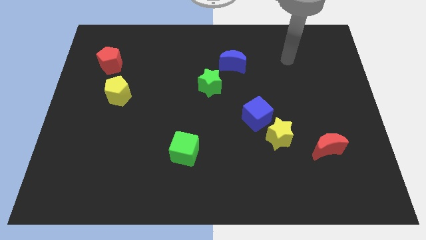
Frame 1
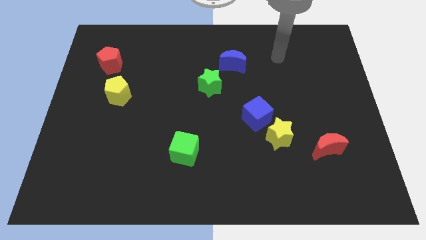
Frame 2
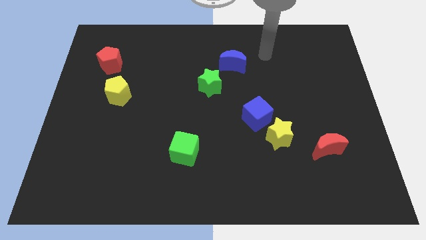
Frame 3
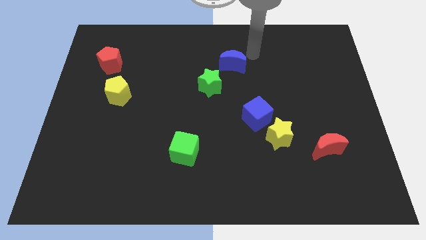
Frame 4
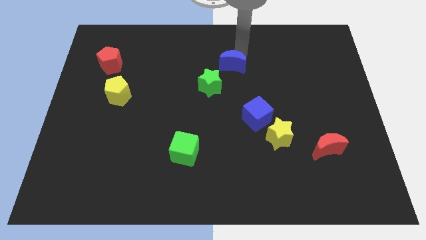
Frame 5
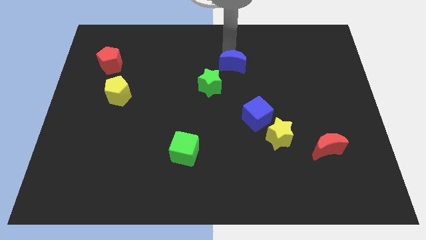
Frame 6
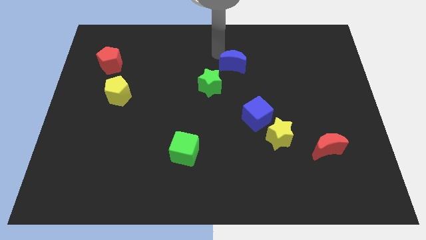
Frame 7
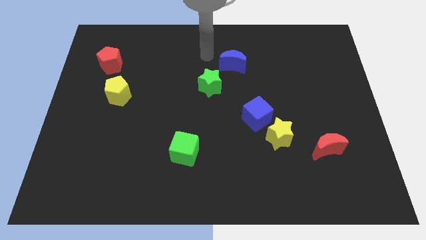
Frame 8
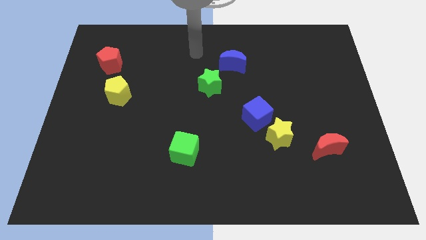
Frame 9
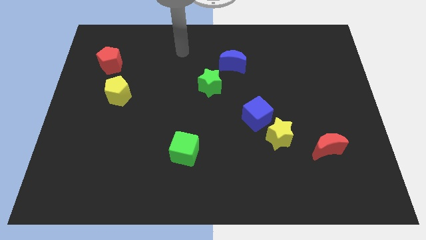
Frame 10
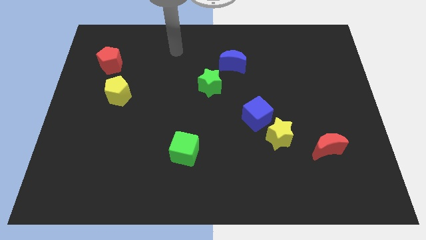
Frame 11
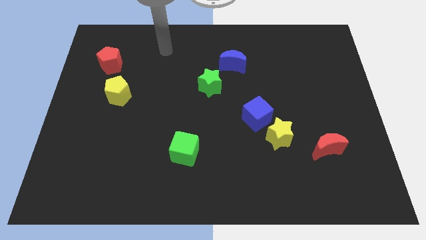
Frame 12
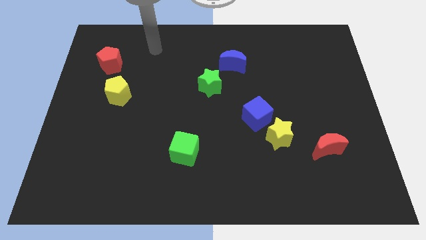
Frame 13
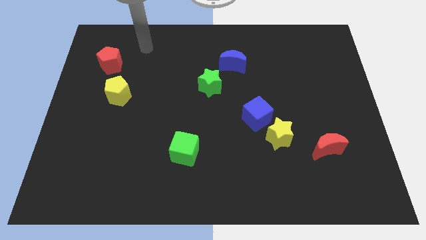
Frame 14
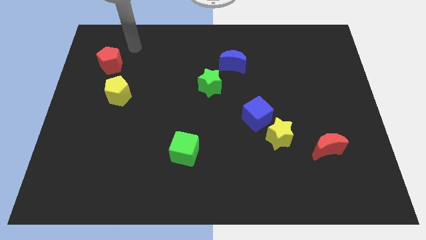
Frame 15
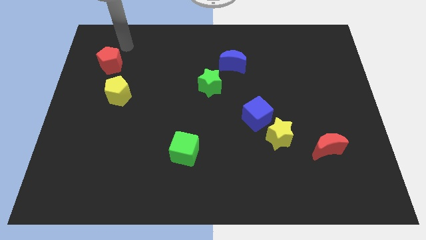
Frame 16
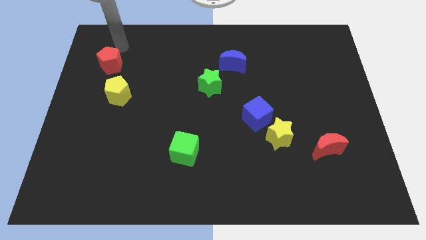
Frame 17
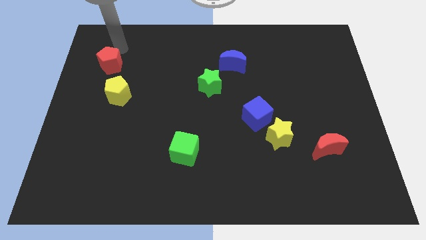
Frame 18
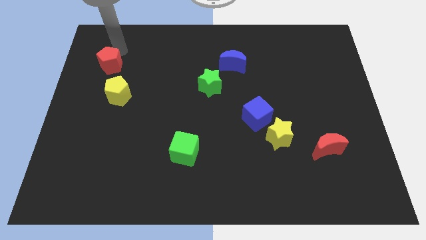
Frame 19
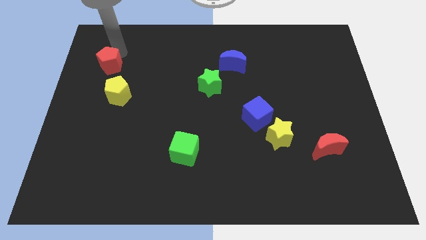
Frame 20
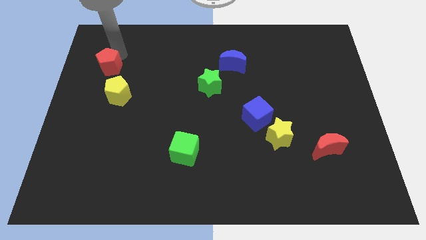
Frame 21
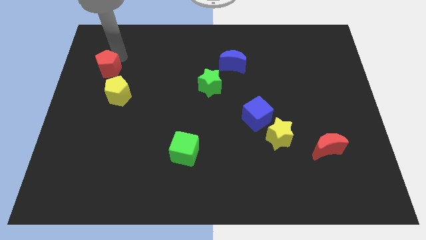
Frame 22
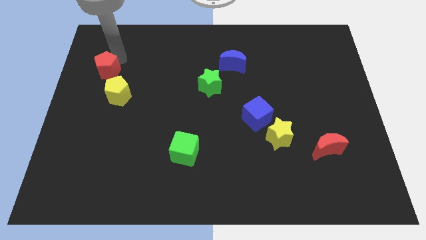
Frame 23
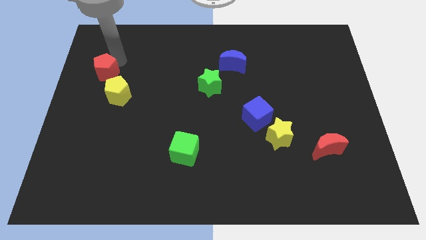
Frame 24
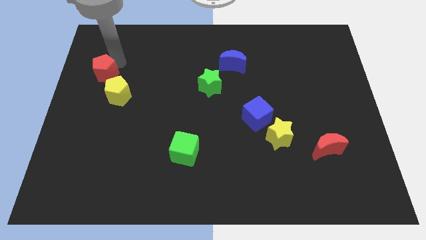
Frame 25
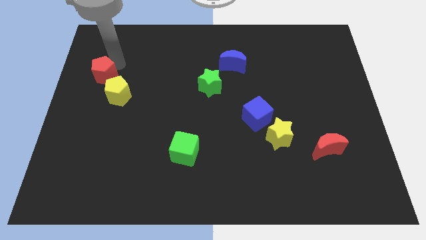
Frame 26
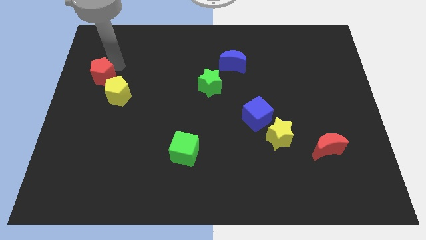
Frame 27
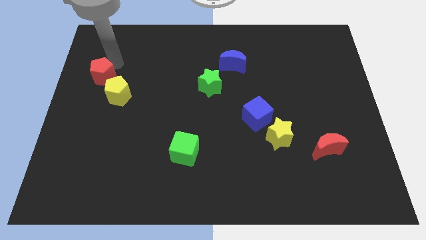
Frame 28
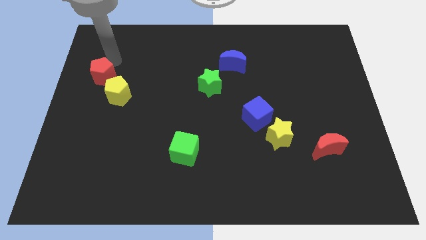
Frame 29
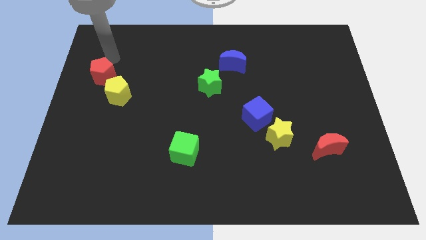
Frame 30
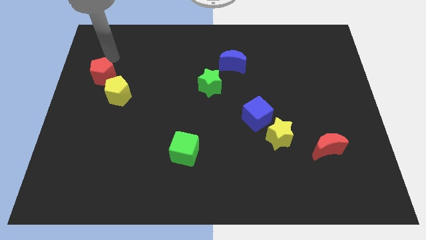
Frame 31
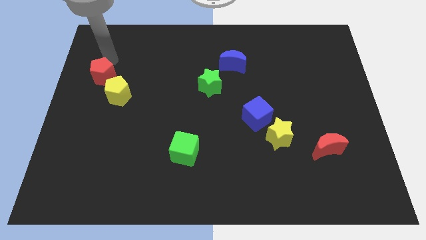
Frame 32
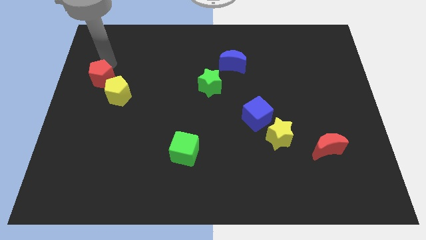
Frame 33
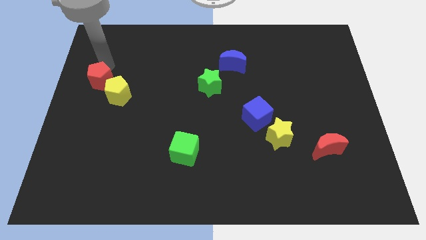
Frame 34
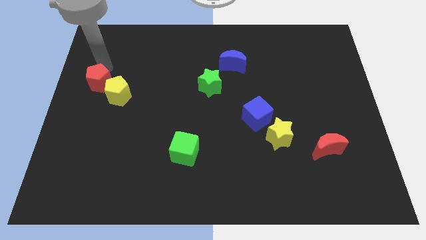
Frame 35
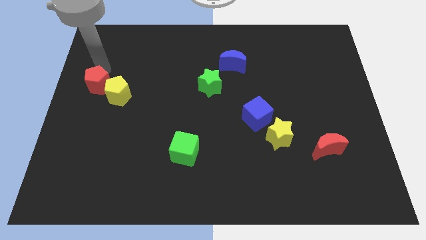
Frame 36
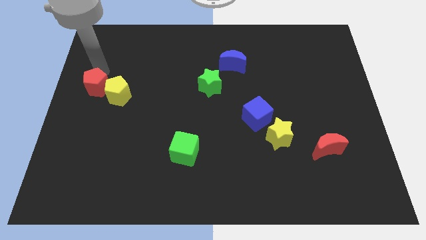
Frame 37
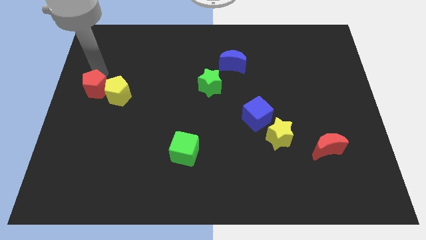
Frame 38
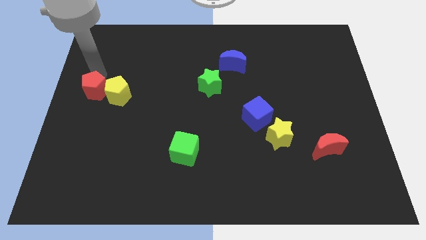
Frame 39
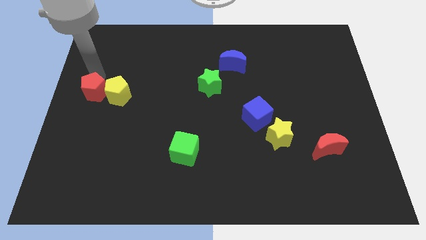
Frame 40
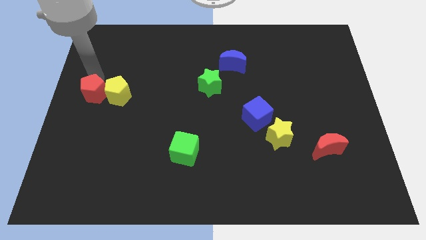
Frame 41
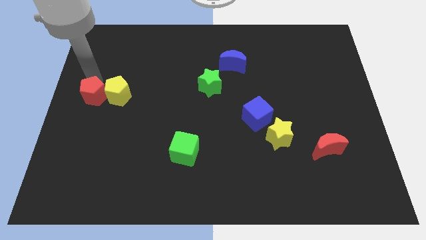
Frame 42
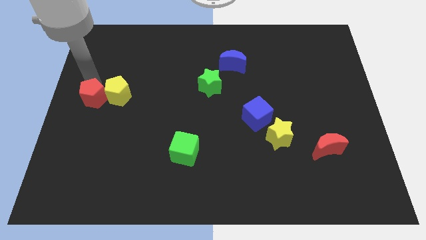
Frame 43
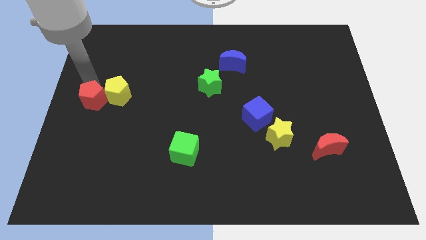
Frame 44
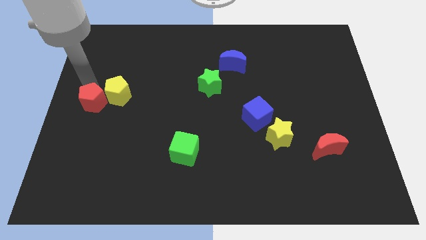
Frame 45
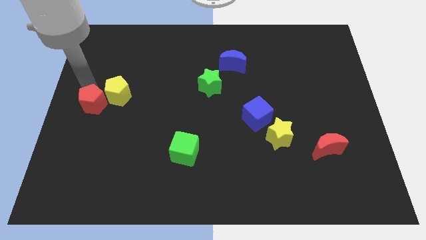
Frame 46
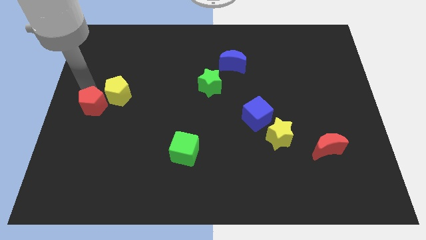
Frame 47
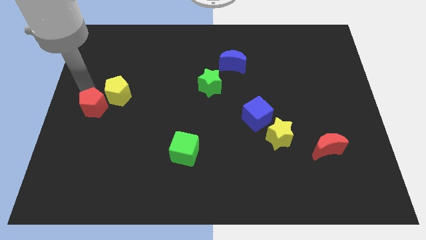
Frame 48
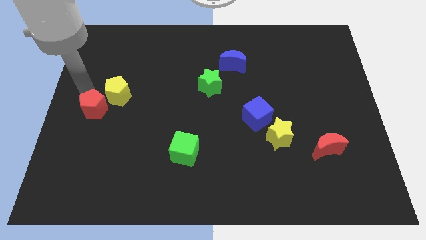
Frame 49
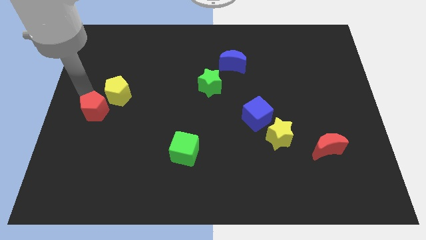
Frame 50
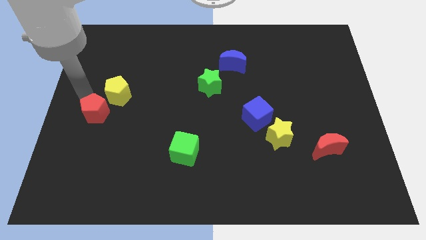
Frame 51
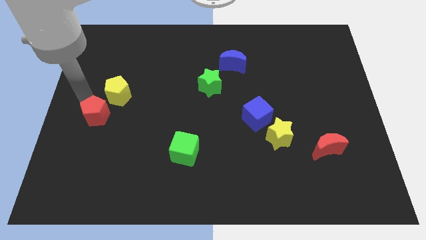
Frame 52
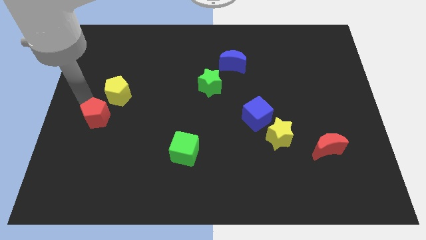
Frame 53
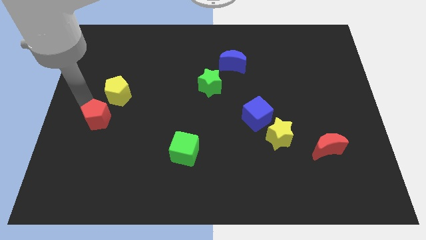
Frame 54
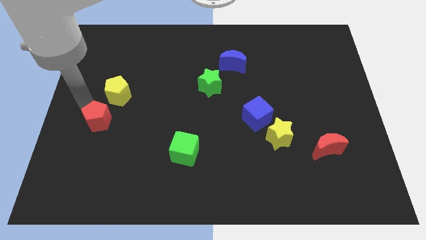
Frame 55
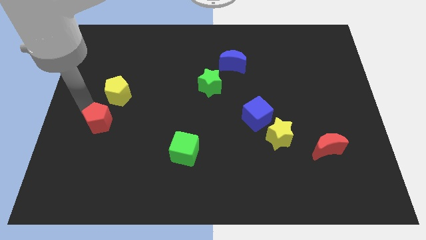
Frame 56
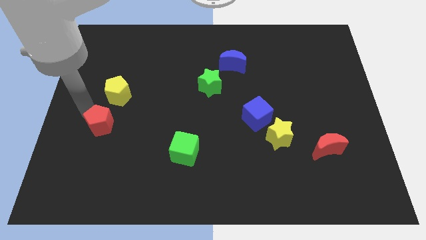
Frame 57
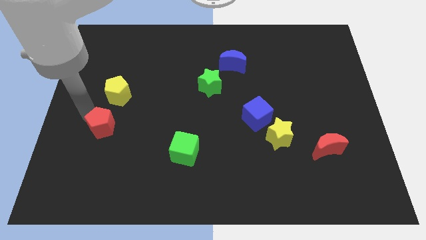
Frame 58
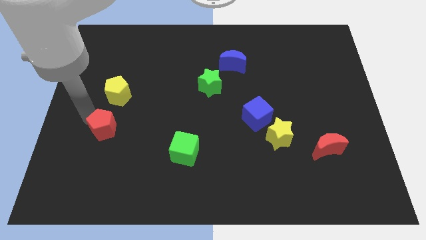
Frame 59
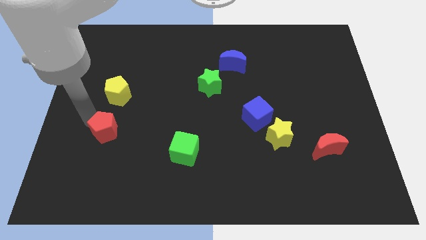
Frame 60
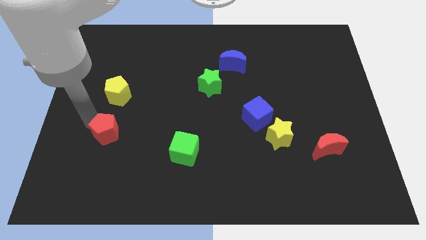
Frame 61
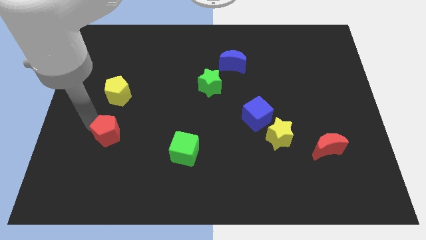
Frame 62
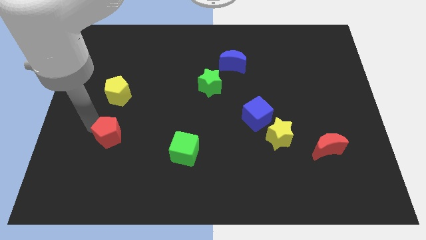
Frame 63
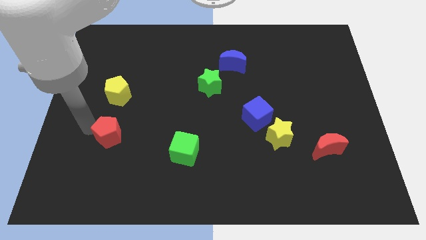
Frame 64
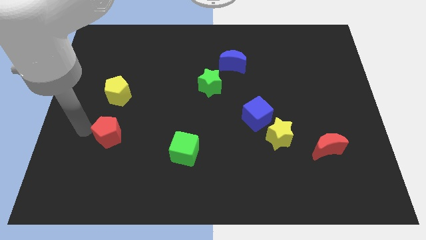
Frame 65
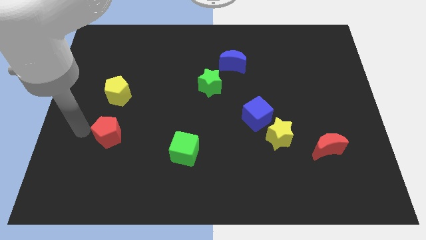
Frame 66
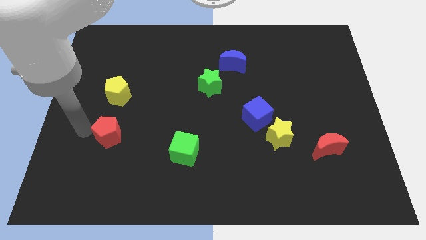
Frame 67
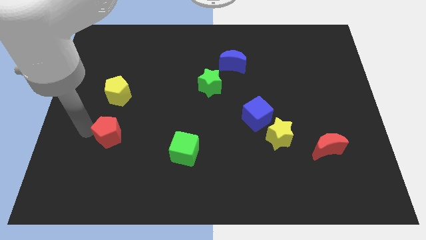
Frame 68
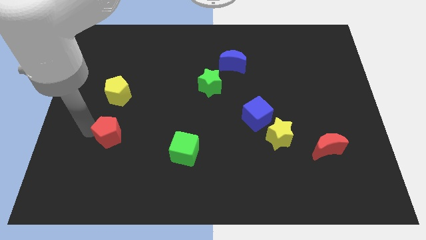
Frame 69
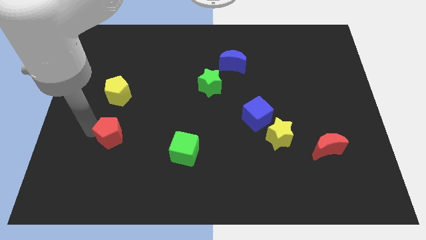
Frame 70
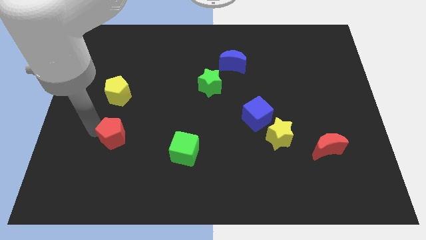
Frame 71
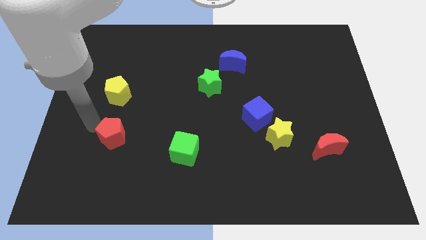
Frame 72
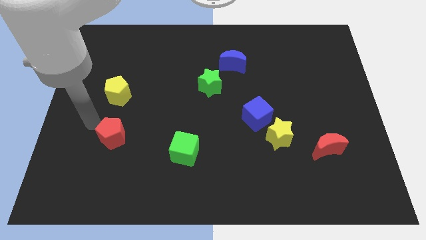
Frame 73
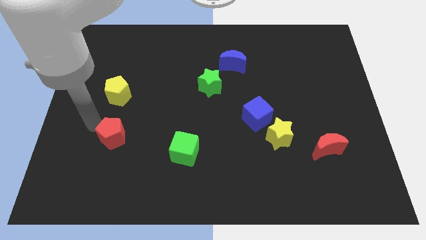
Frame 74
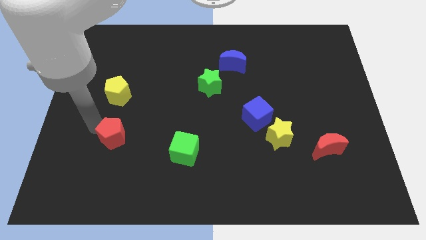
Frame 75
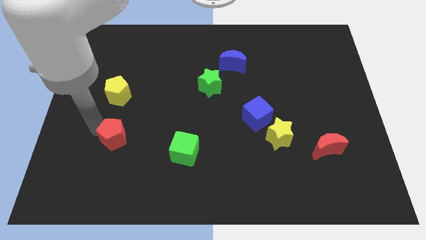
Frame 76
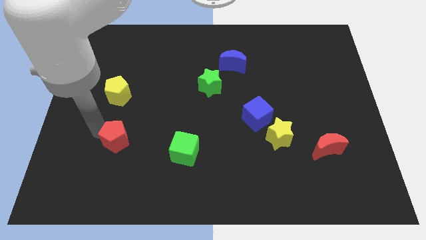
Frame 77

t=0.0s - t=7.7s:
move the red pentagon to the left side of the green cube
